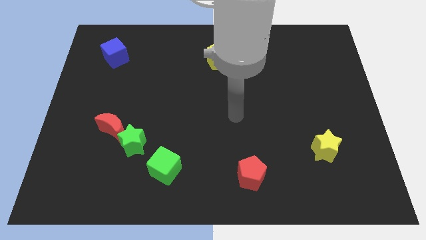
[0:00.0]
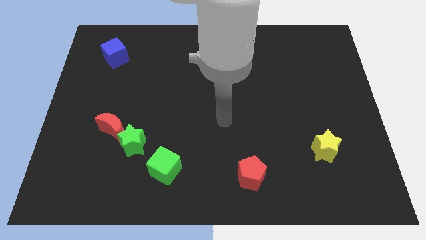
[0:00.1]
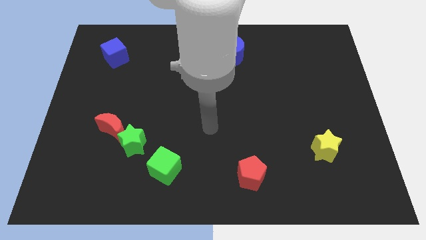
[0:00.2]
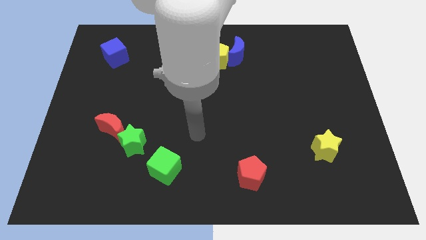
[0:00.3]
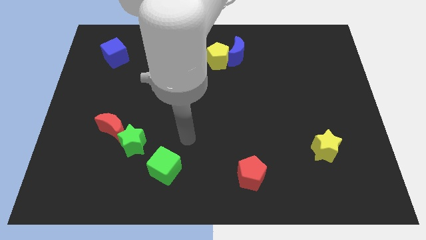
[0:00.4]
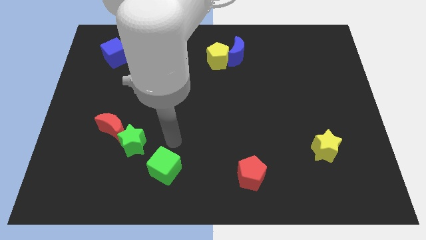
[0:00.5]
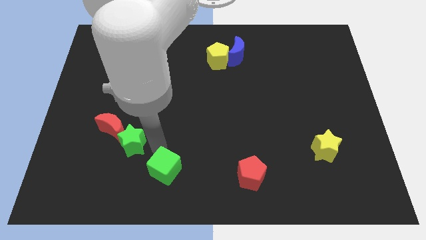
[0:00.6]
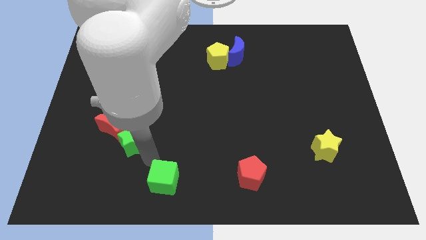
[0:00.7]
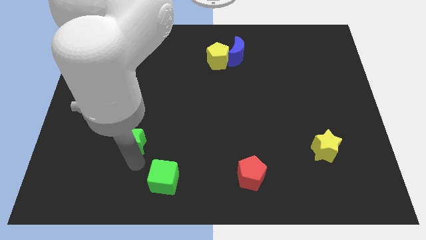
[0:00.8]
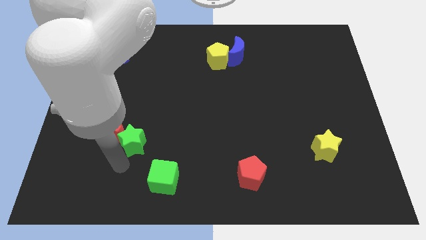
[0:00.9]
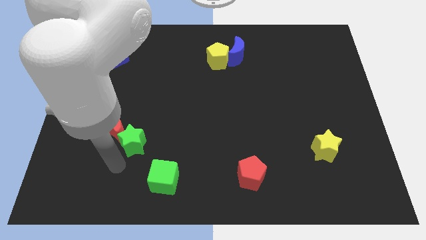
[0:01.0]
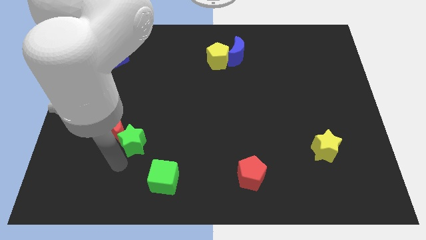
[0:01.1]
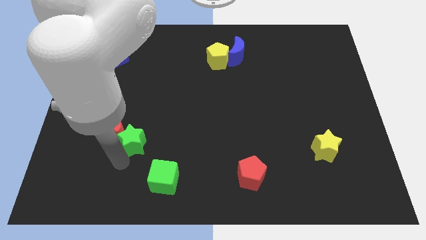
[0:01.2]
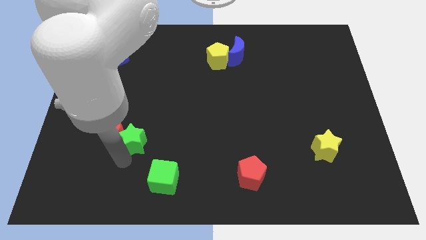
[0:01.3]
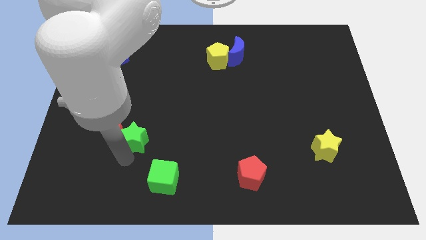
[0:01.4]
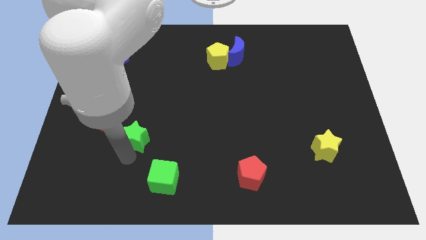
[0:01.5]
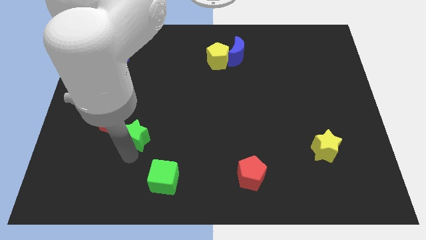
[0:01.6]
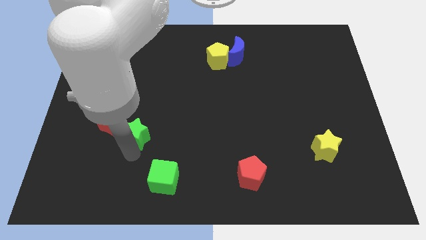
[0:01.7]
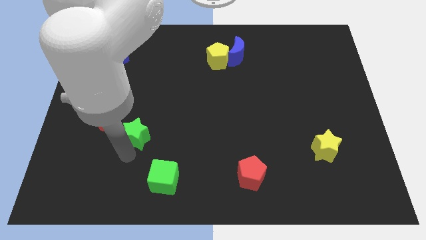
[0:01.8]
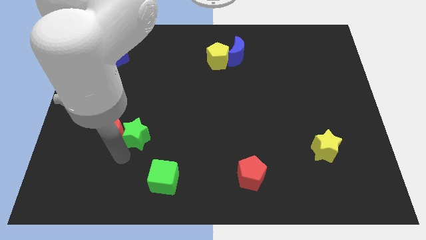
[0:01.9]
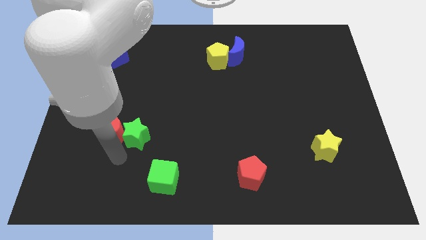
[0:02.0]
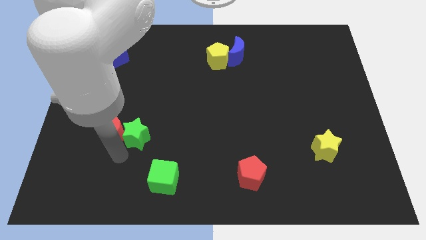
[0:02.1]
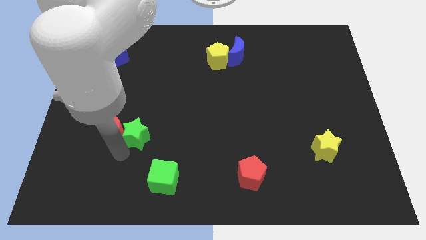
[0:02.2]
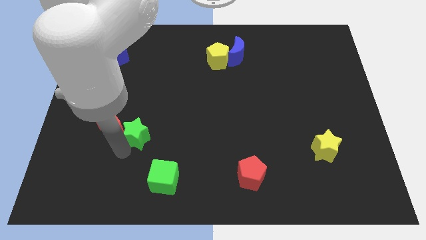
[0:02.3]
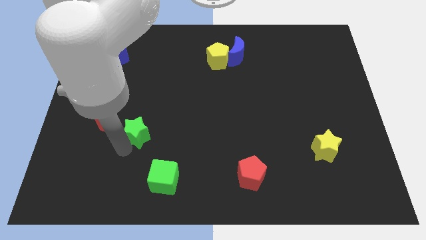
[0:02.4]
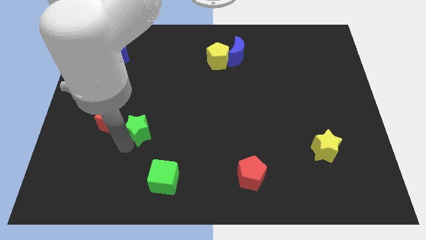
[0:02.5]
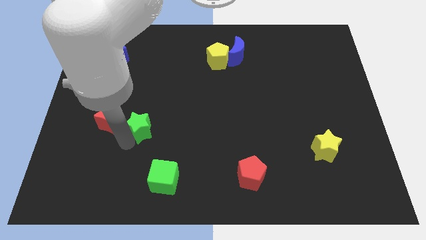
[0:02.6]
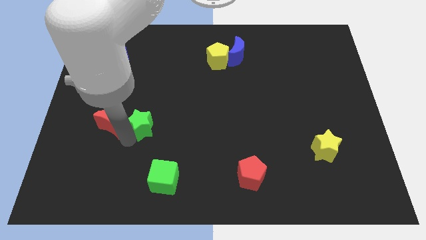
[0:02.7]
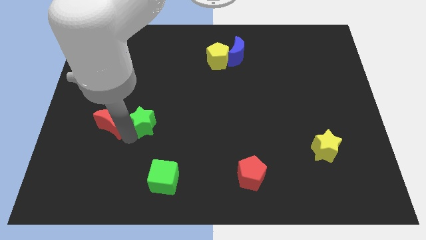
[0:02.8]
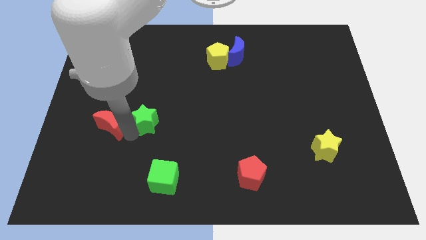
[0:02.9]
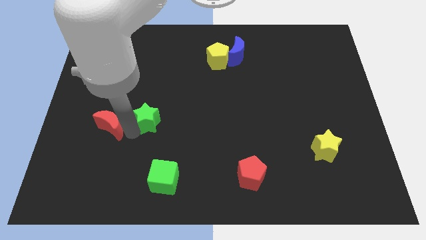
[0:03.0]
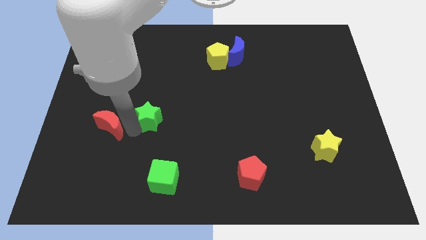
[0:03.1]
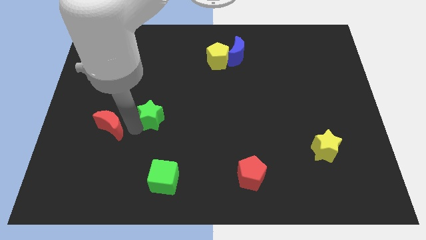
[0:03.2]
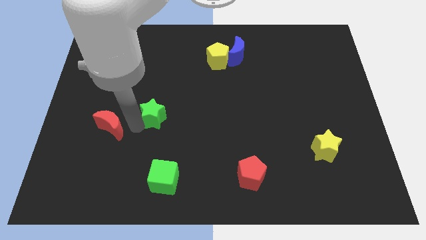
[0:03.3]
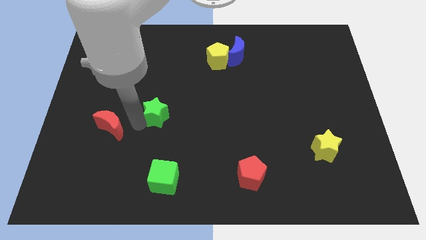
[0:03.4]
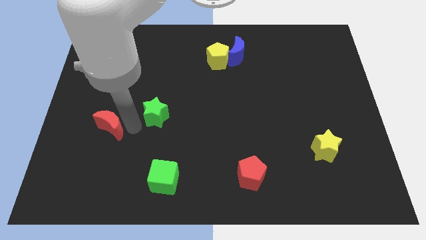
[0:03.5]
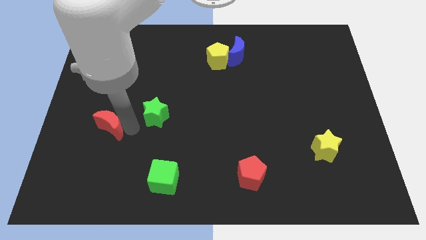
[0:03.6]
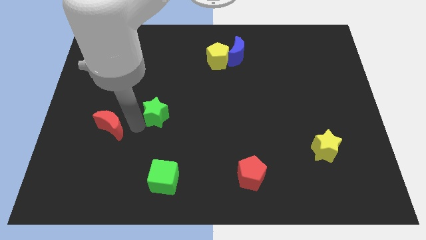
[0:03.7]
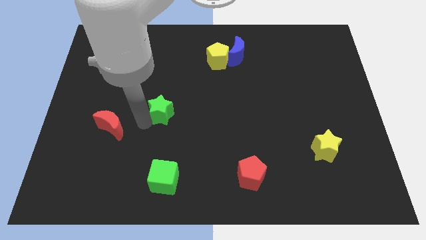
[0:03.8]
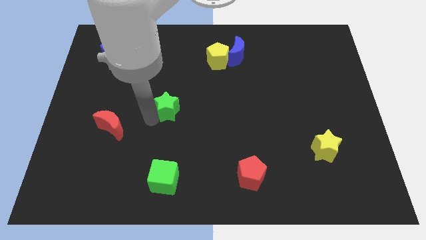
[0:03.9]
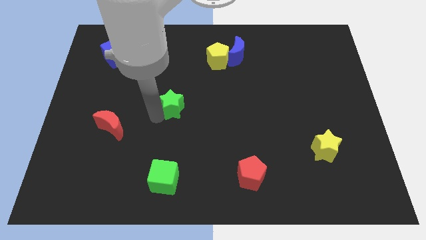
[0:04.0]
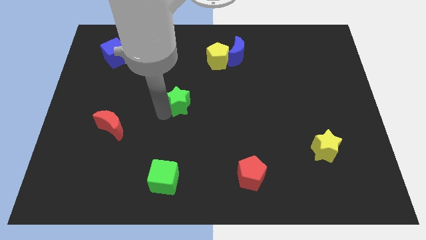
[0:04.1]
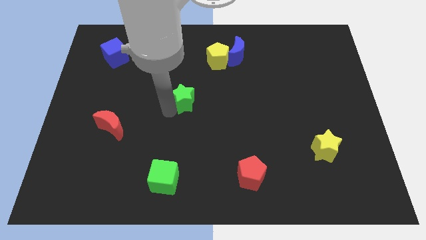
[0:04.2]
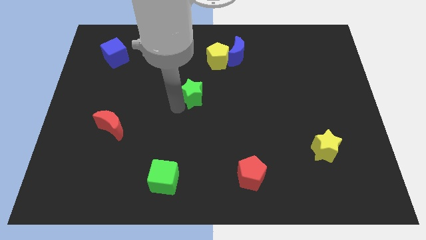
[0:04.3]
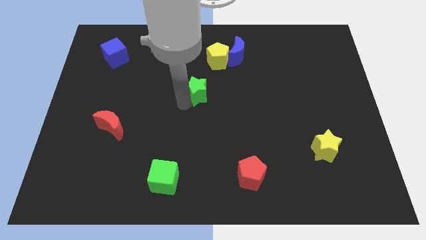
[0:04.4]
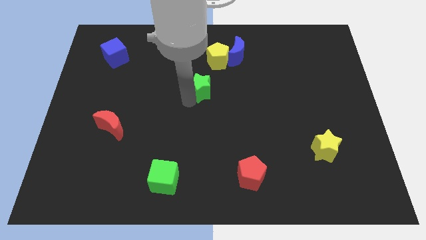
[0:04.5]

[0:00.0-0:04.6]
move the green star up and then right

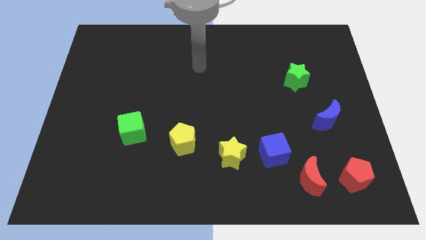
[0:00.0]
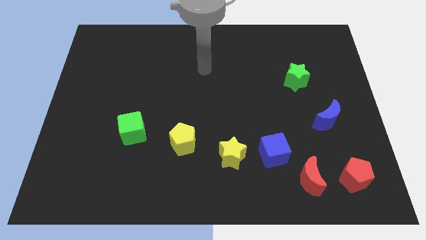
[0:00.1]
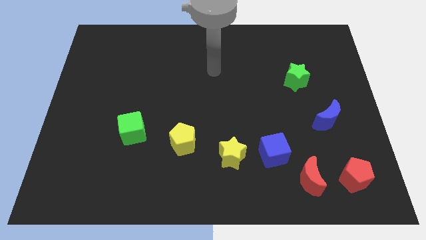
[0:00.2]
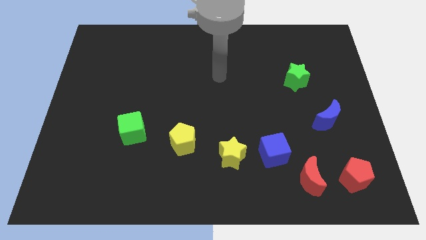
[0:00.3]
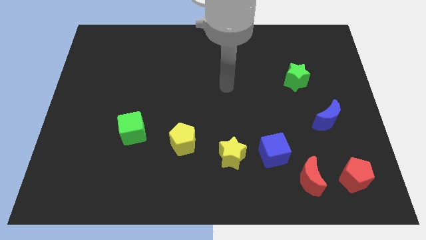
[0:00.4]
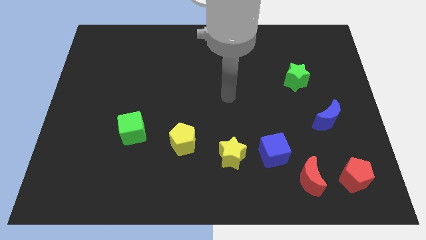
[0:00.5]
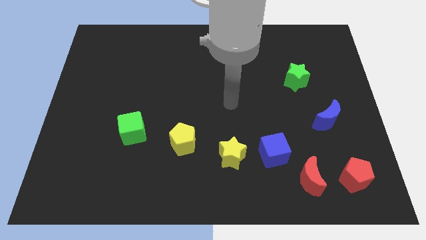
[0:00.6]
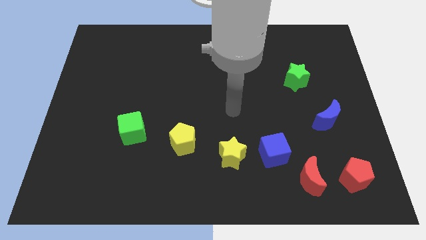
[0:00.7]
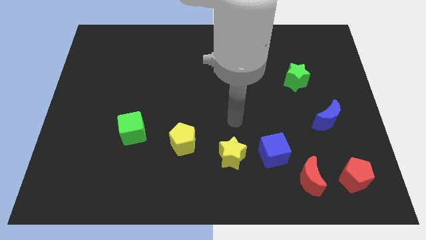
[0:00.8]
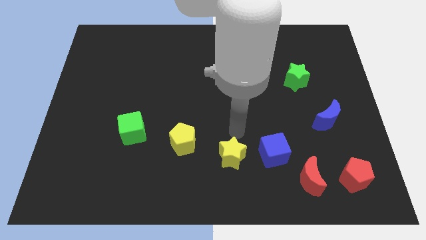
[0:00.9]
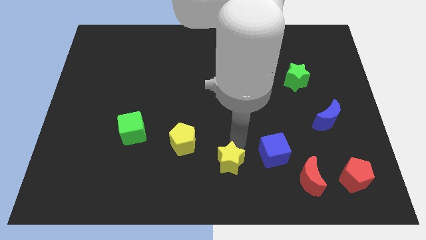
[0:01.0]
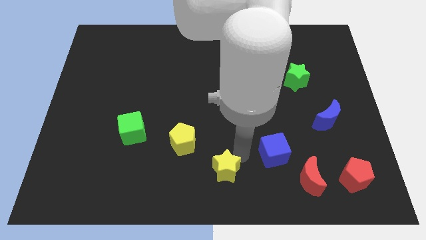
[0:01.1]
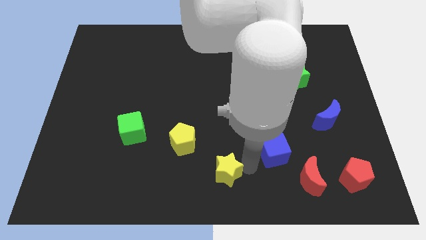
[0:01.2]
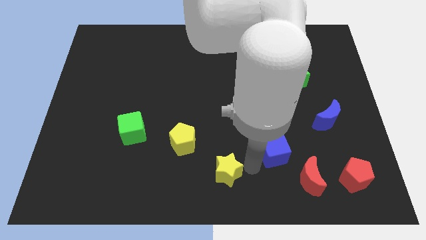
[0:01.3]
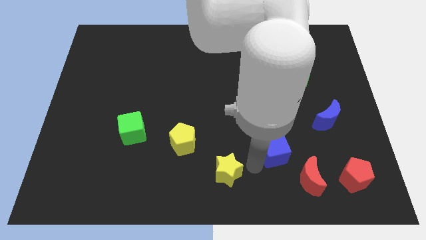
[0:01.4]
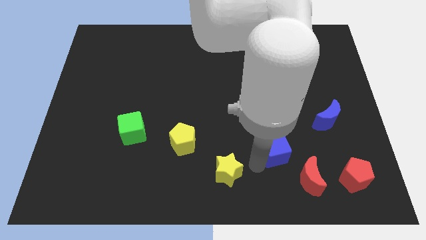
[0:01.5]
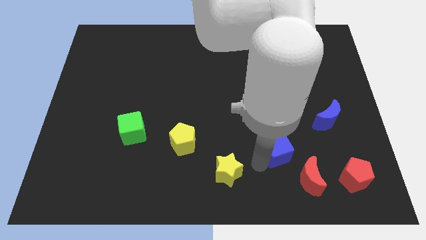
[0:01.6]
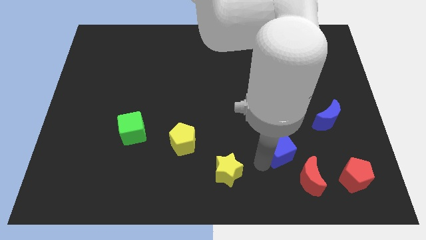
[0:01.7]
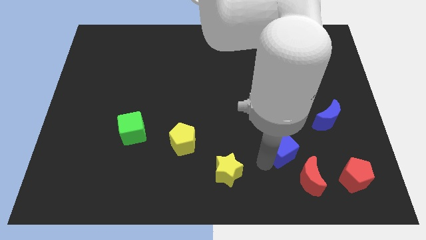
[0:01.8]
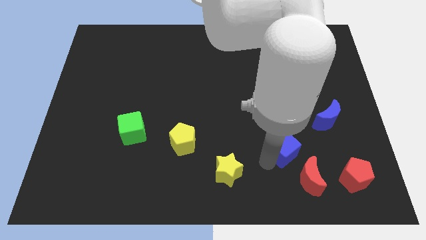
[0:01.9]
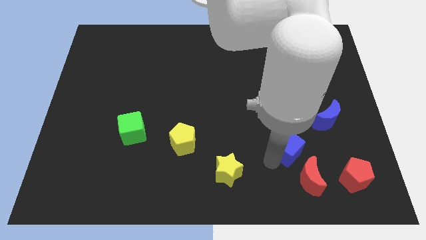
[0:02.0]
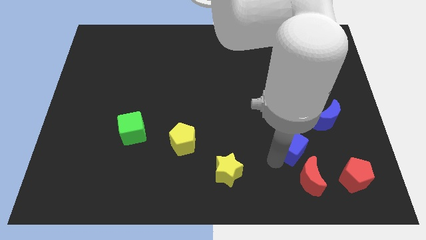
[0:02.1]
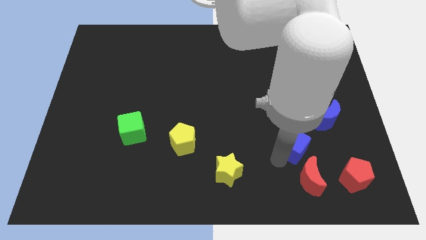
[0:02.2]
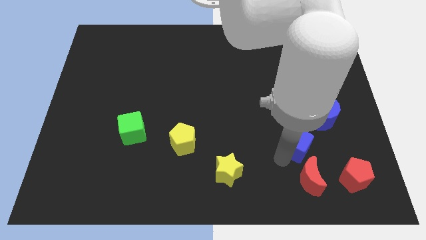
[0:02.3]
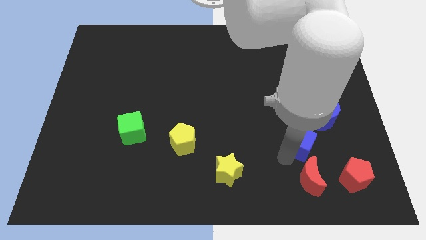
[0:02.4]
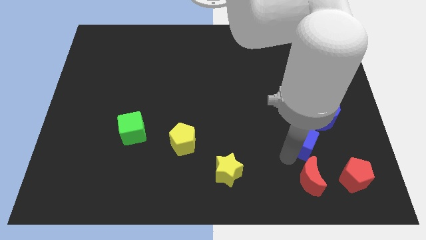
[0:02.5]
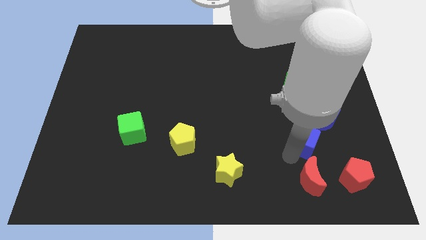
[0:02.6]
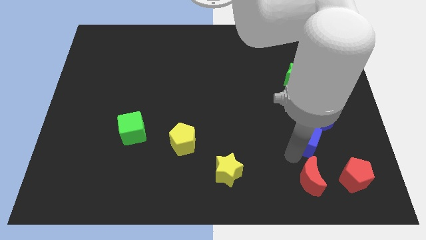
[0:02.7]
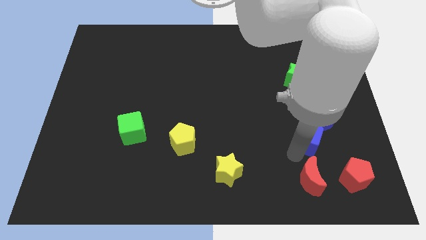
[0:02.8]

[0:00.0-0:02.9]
slide the blue cube somewhat upwards and to the right

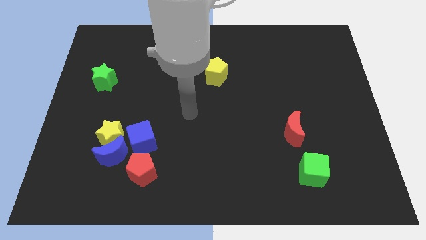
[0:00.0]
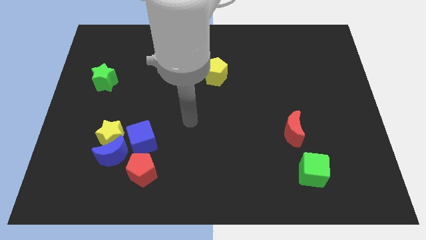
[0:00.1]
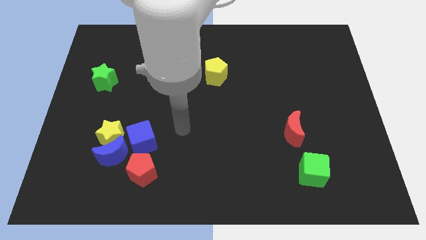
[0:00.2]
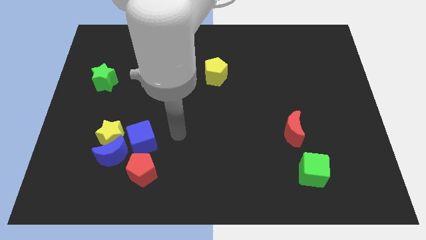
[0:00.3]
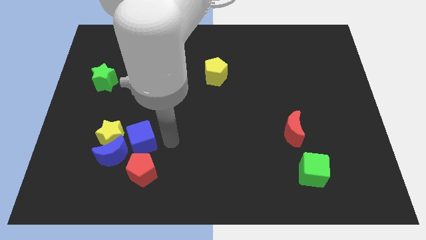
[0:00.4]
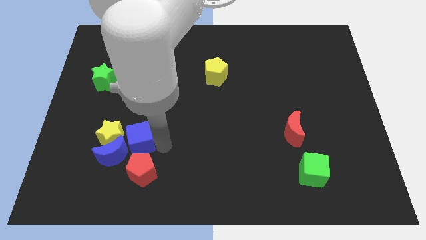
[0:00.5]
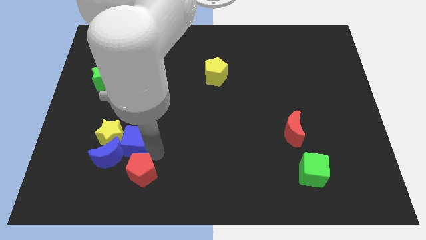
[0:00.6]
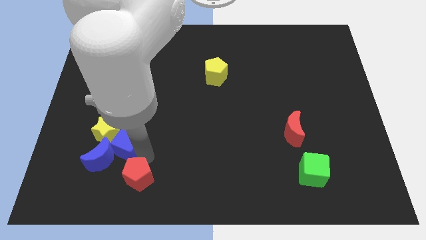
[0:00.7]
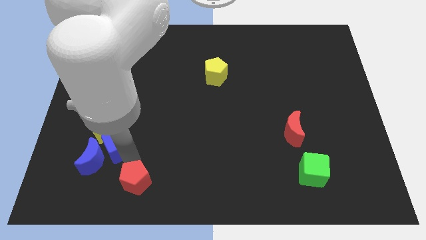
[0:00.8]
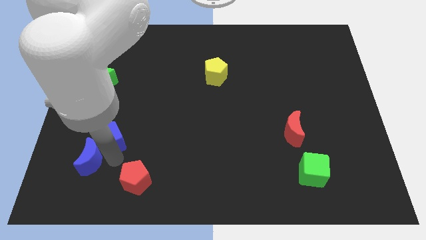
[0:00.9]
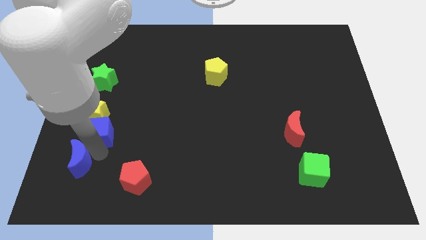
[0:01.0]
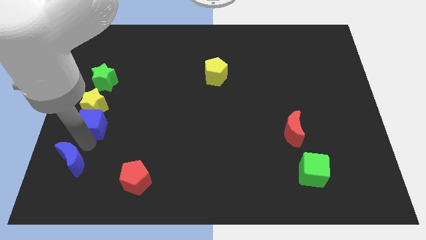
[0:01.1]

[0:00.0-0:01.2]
move the yellow star a bit up
